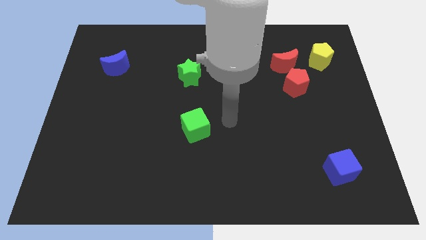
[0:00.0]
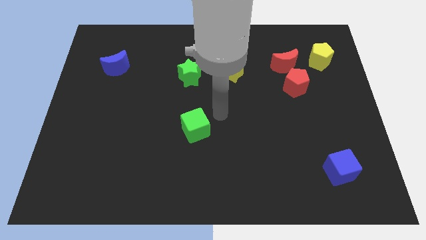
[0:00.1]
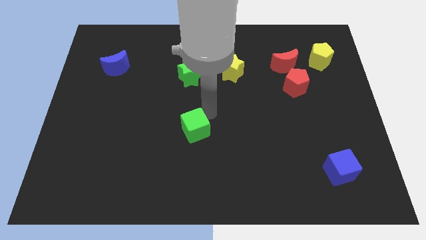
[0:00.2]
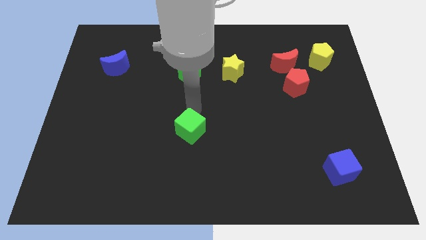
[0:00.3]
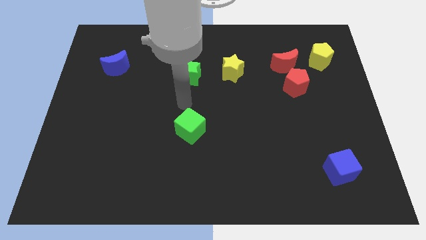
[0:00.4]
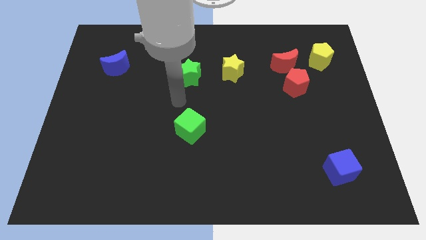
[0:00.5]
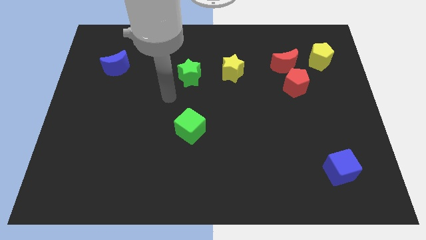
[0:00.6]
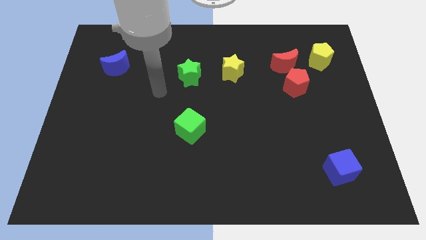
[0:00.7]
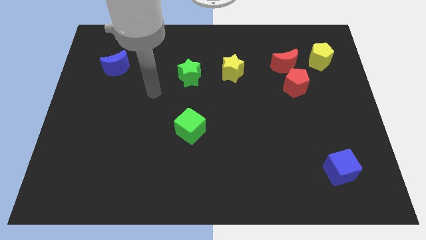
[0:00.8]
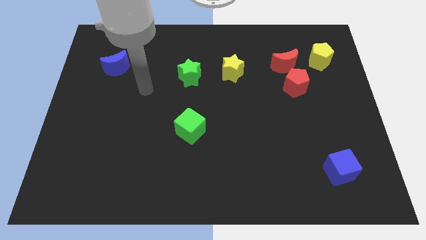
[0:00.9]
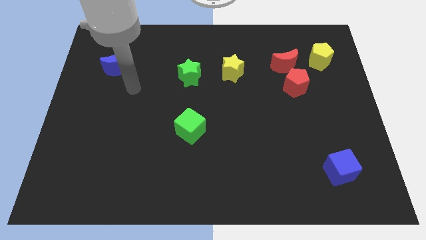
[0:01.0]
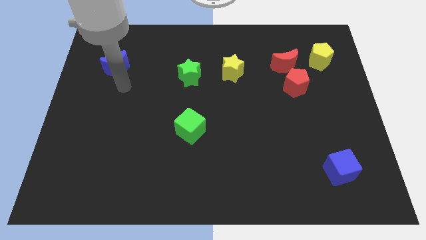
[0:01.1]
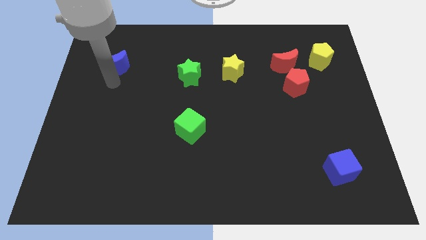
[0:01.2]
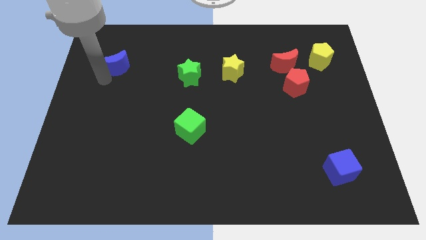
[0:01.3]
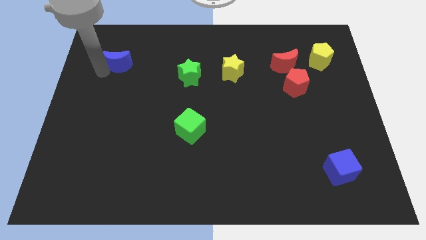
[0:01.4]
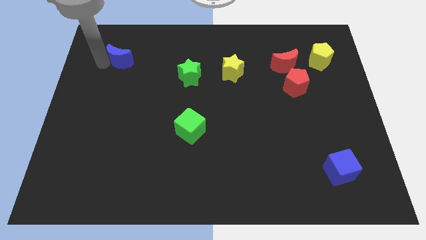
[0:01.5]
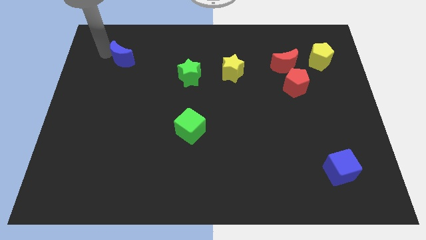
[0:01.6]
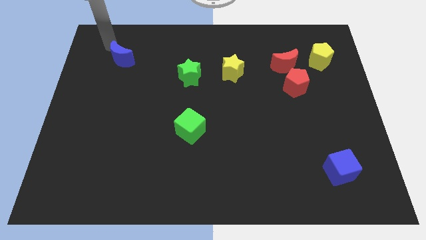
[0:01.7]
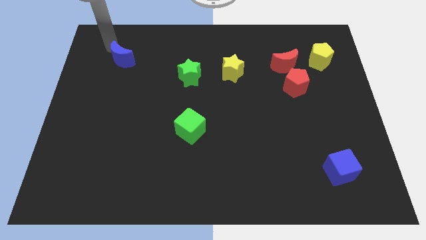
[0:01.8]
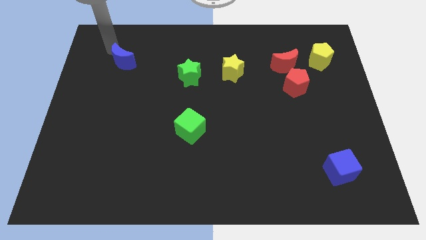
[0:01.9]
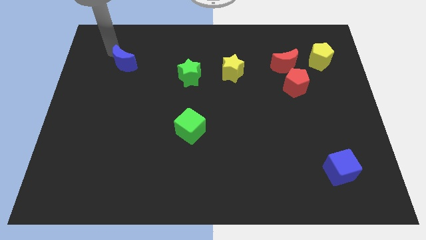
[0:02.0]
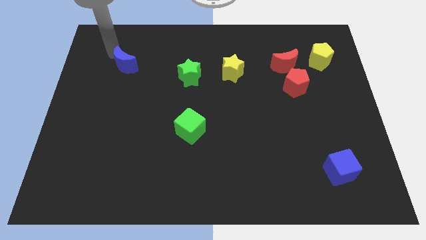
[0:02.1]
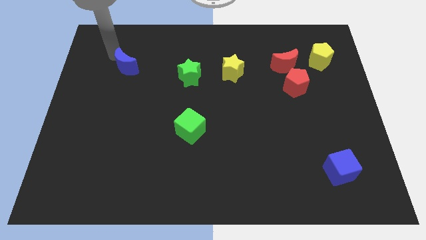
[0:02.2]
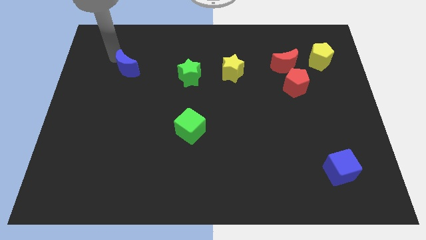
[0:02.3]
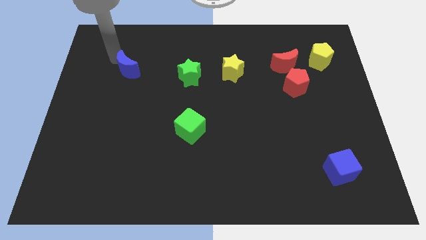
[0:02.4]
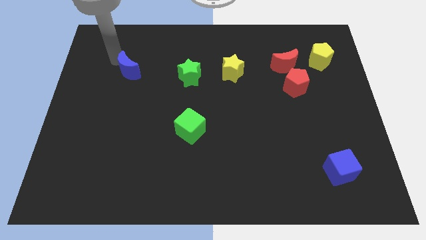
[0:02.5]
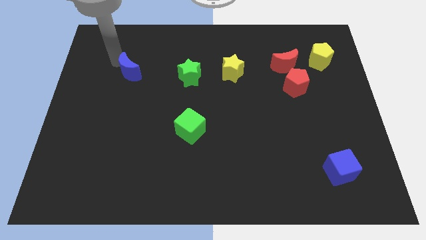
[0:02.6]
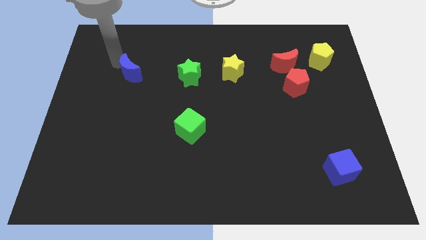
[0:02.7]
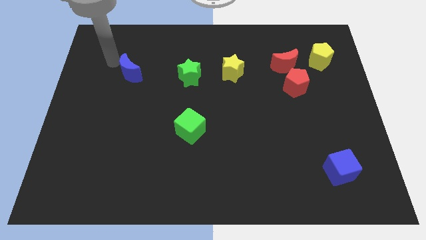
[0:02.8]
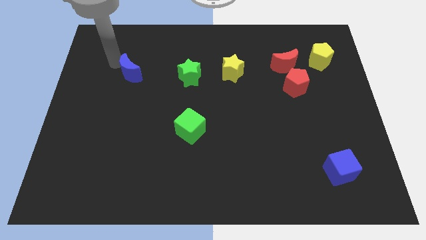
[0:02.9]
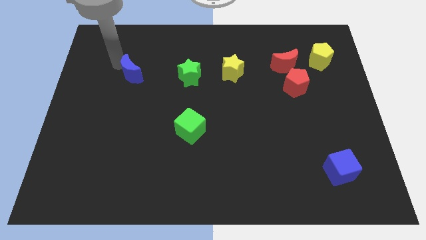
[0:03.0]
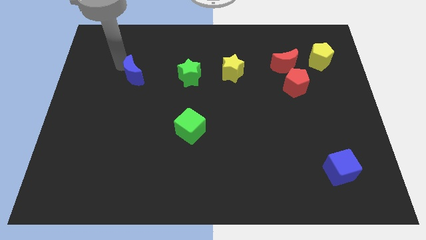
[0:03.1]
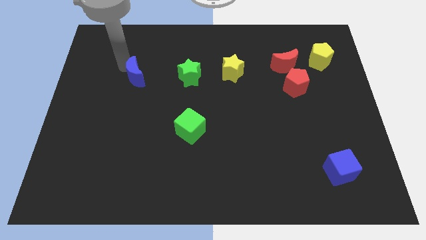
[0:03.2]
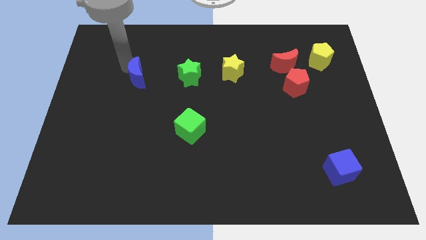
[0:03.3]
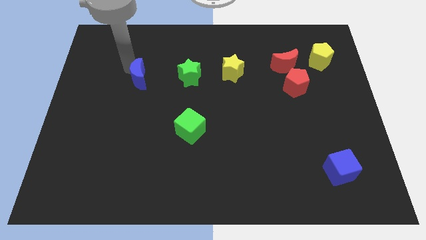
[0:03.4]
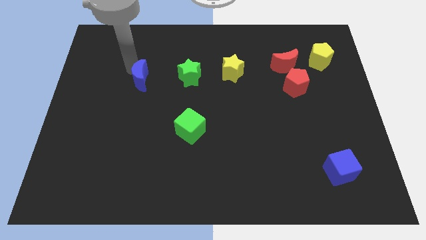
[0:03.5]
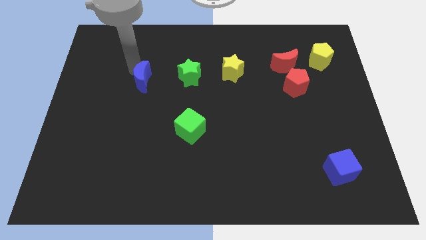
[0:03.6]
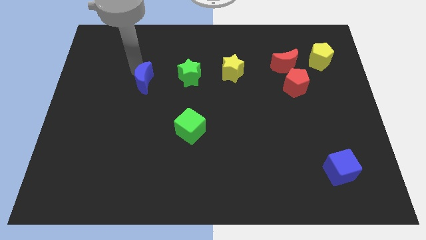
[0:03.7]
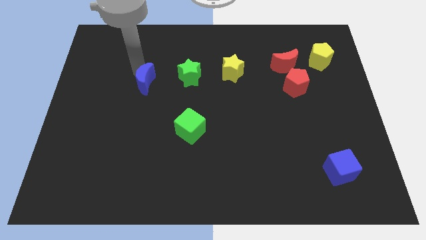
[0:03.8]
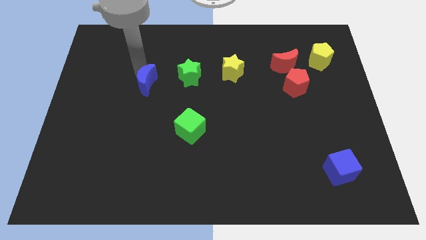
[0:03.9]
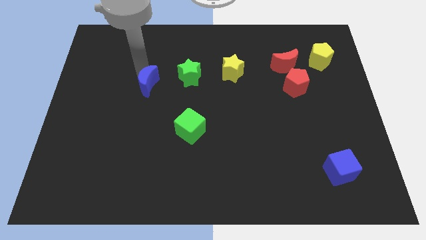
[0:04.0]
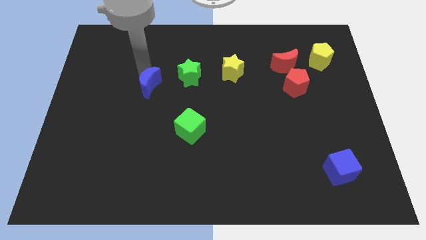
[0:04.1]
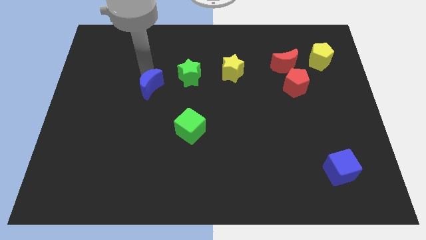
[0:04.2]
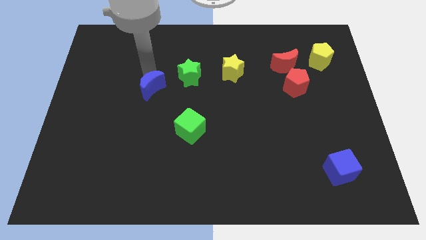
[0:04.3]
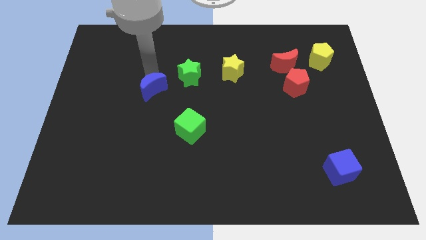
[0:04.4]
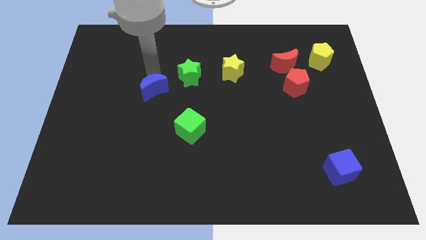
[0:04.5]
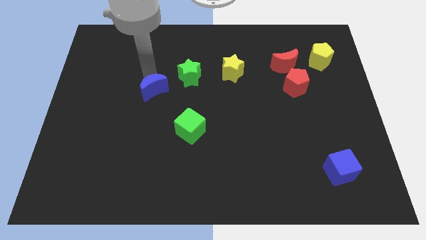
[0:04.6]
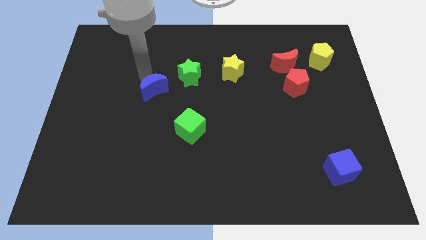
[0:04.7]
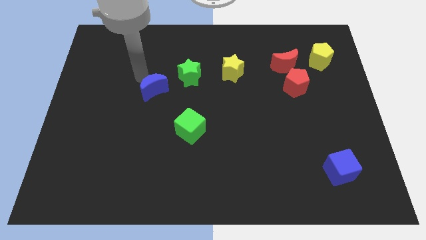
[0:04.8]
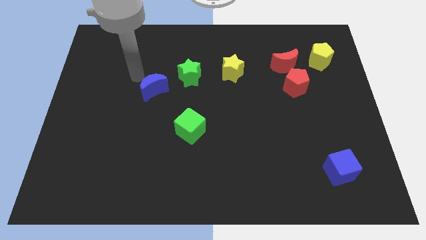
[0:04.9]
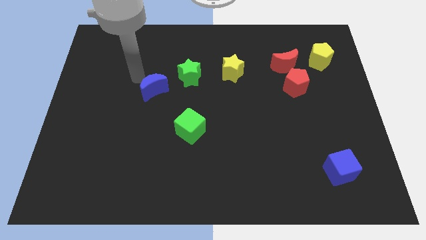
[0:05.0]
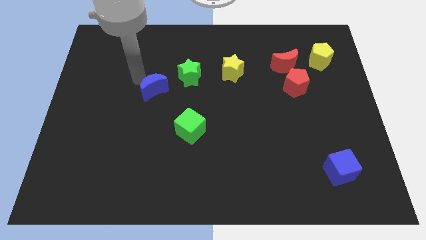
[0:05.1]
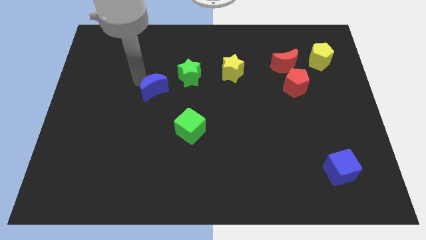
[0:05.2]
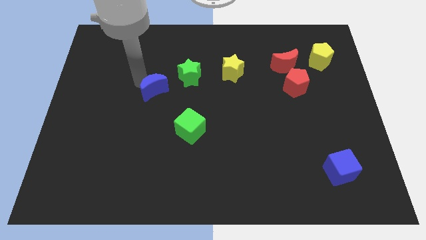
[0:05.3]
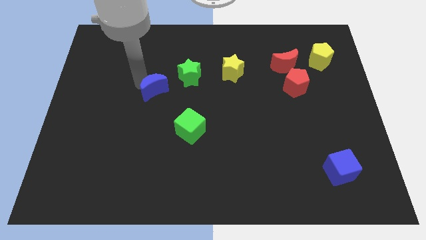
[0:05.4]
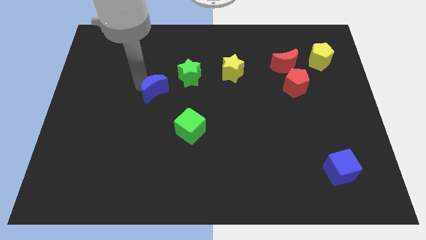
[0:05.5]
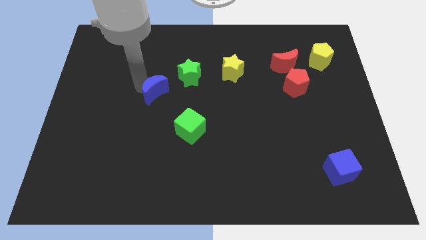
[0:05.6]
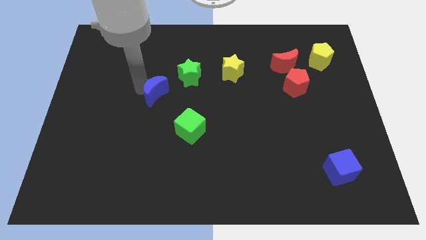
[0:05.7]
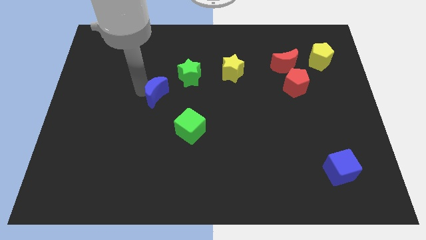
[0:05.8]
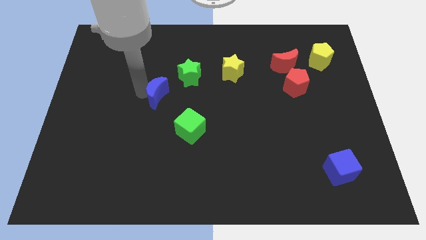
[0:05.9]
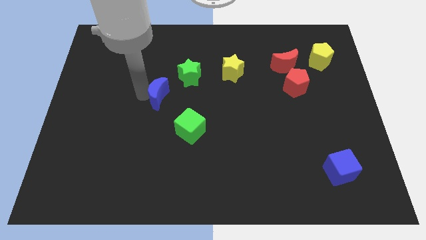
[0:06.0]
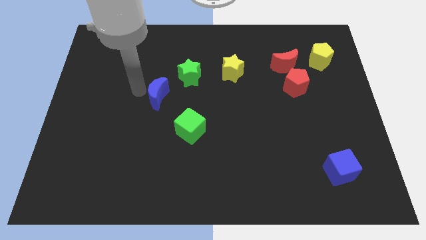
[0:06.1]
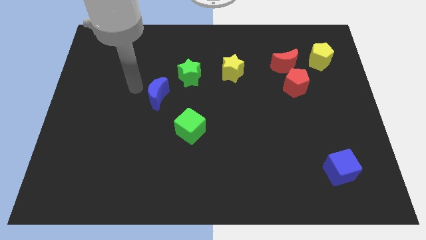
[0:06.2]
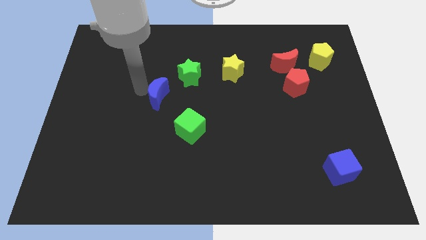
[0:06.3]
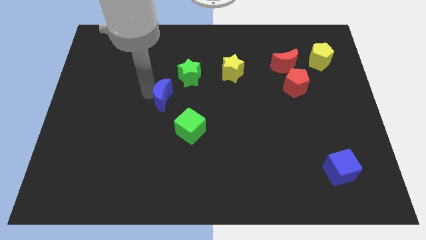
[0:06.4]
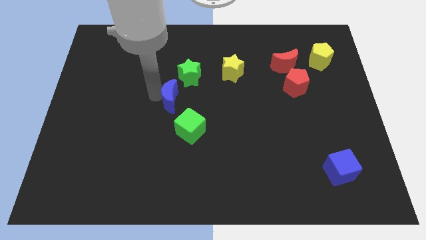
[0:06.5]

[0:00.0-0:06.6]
move the blue moon to the bottom of the green star
